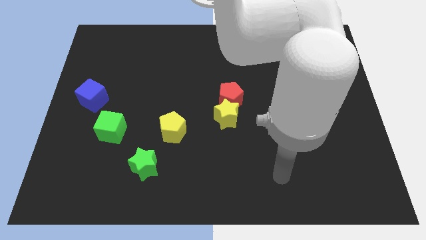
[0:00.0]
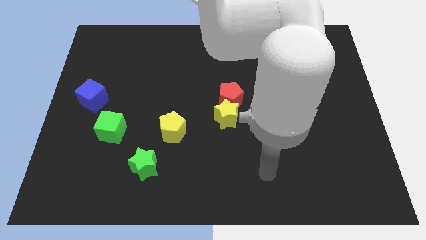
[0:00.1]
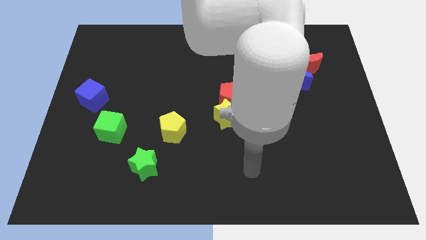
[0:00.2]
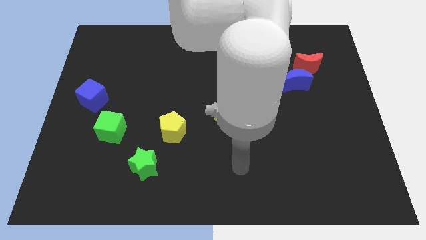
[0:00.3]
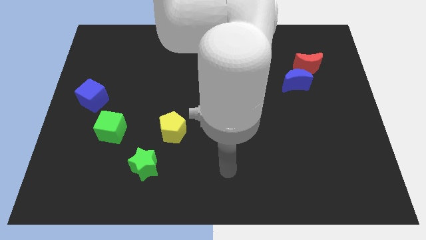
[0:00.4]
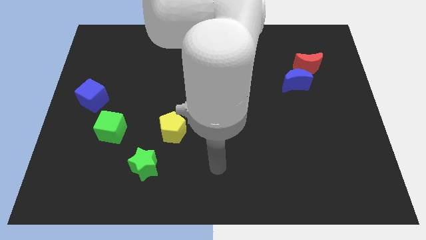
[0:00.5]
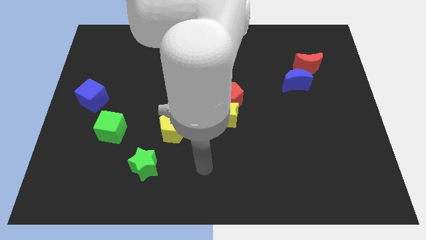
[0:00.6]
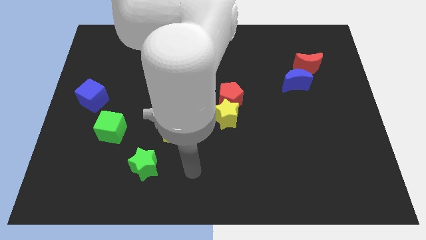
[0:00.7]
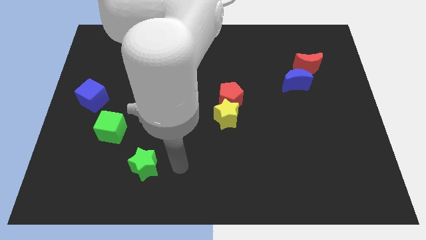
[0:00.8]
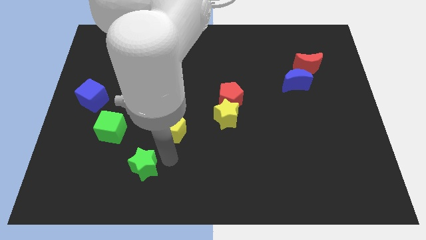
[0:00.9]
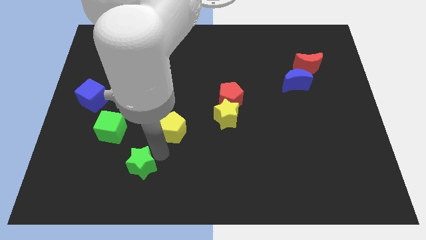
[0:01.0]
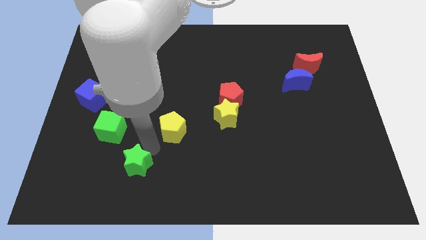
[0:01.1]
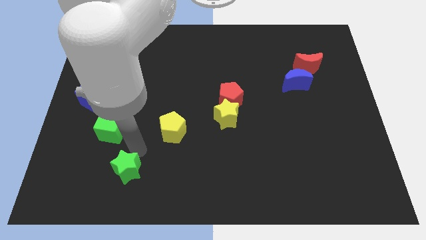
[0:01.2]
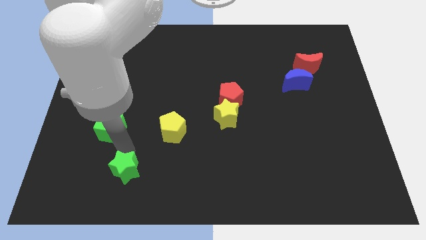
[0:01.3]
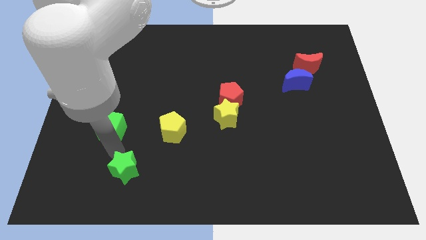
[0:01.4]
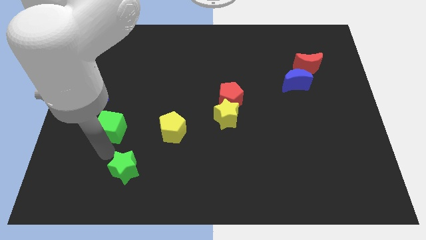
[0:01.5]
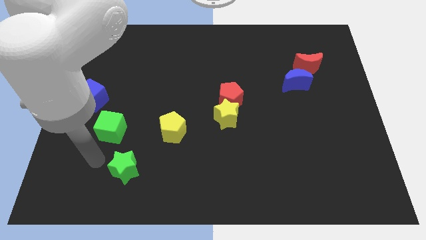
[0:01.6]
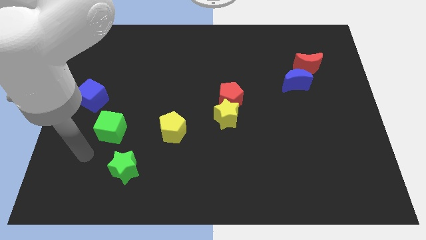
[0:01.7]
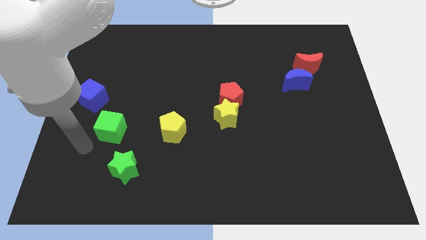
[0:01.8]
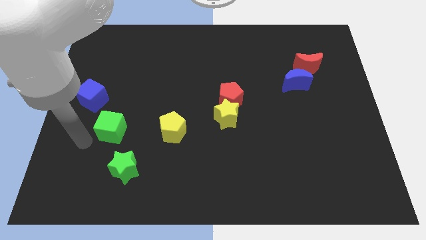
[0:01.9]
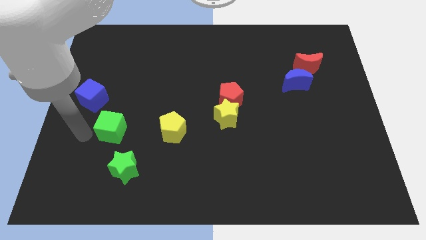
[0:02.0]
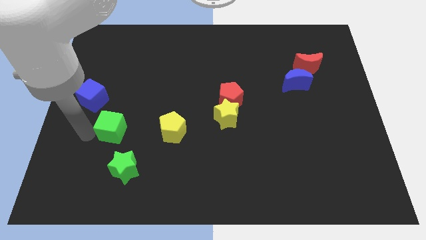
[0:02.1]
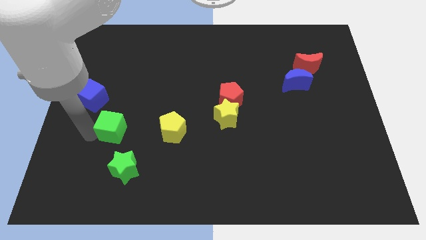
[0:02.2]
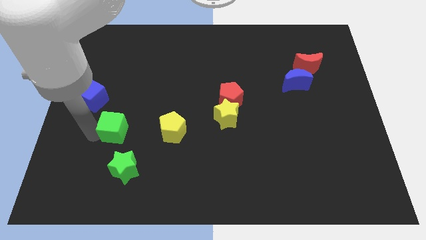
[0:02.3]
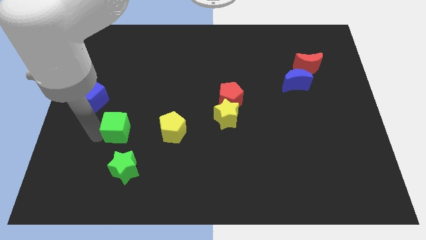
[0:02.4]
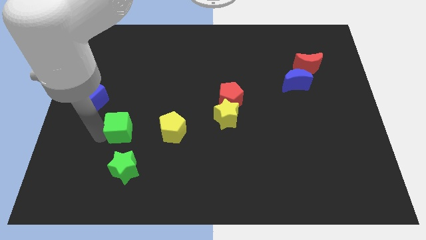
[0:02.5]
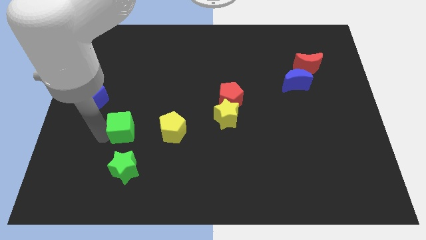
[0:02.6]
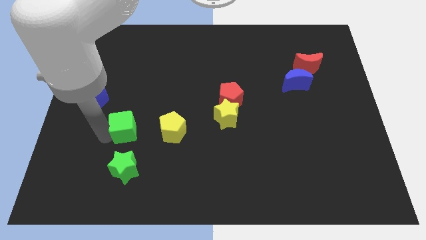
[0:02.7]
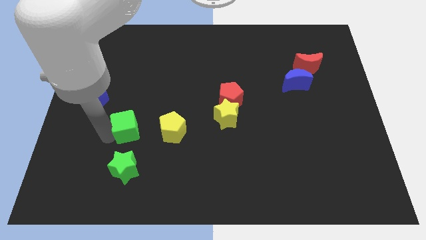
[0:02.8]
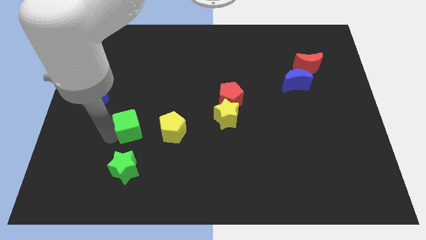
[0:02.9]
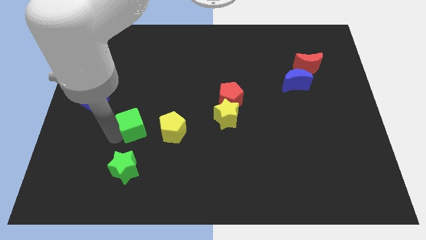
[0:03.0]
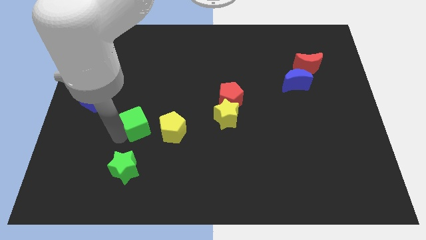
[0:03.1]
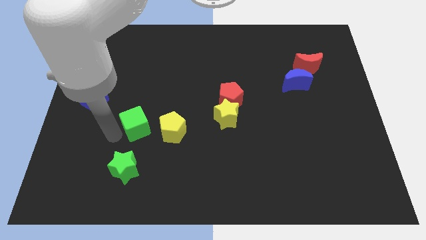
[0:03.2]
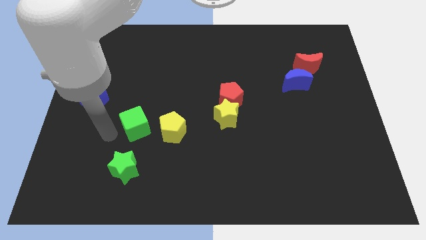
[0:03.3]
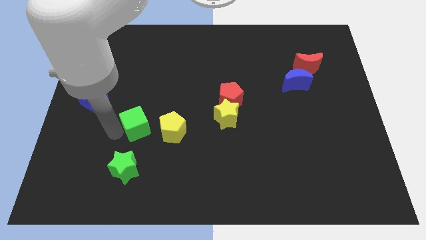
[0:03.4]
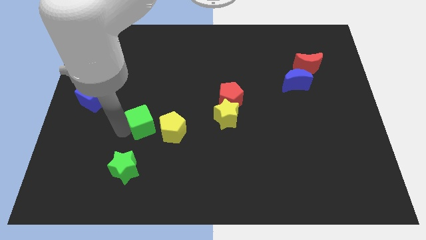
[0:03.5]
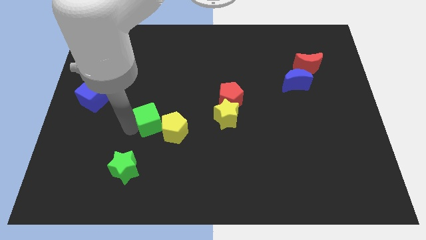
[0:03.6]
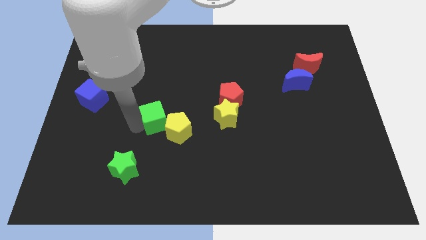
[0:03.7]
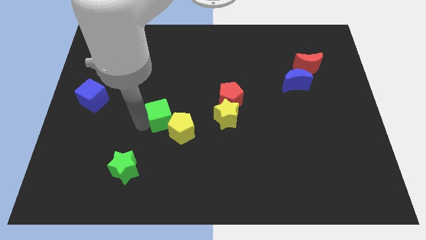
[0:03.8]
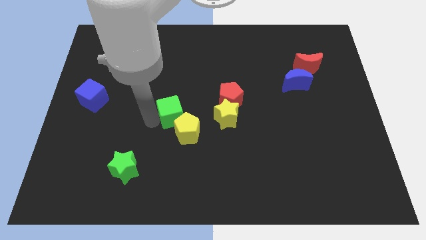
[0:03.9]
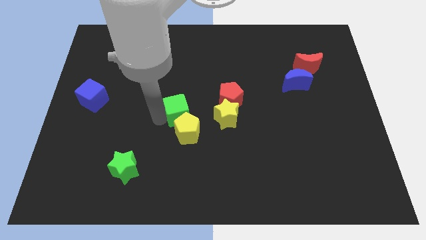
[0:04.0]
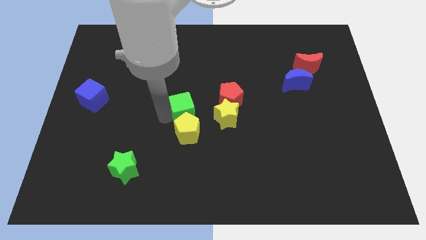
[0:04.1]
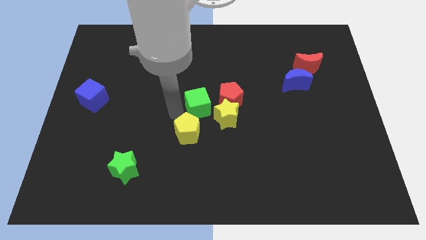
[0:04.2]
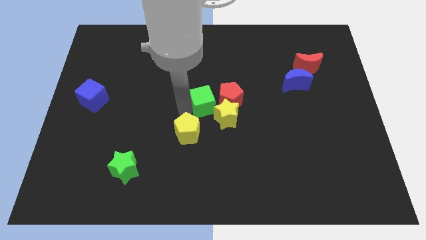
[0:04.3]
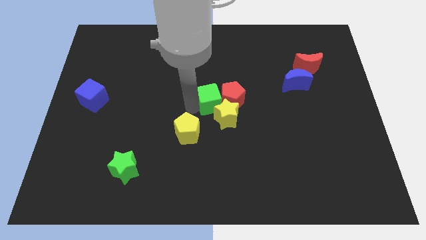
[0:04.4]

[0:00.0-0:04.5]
move the green cube towards the red pentagon

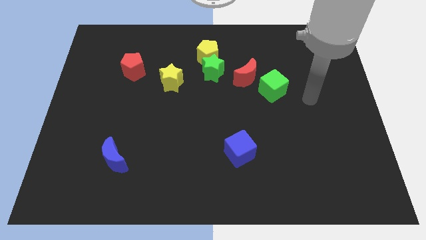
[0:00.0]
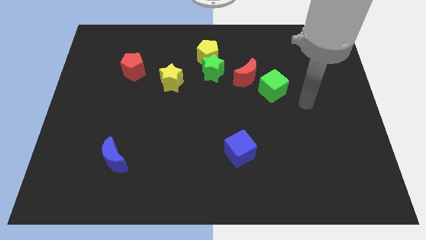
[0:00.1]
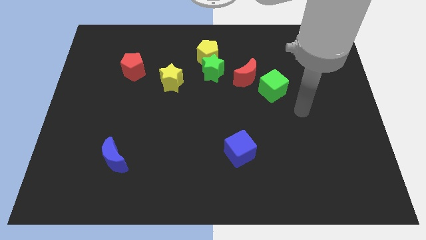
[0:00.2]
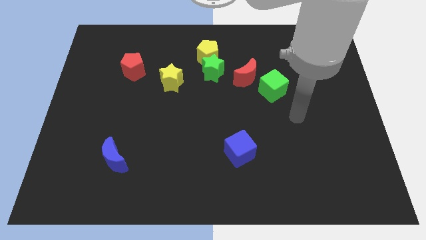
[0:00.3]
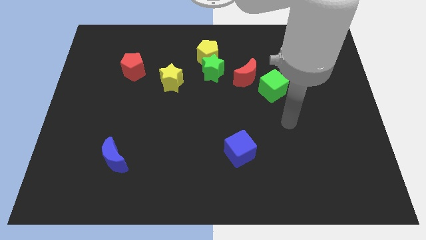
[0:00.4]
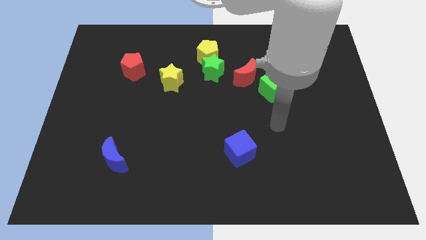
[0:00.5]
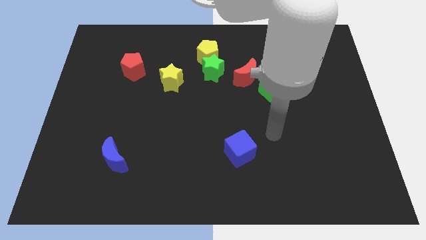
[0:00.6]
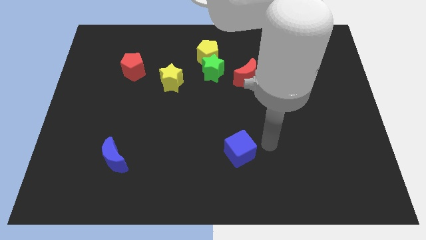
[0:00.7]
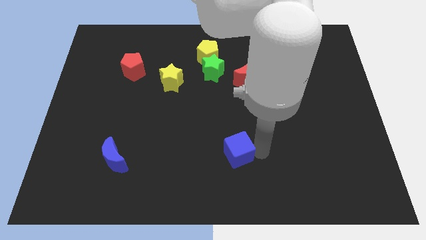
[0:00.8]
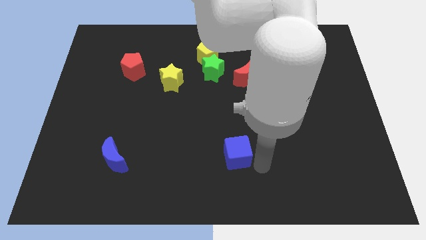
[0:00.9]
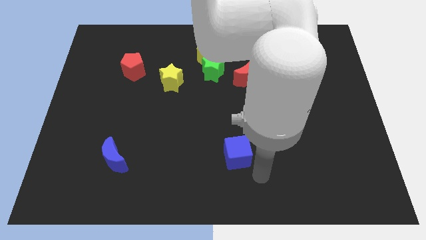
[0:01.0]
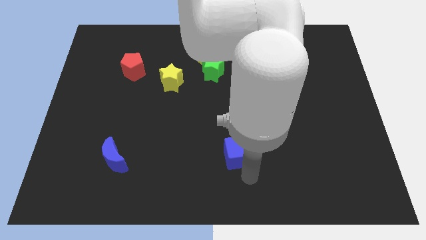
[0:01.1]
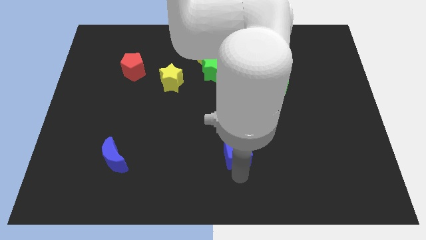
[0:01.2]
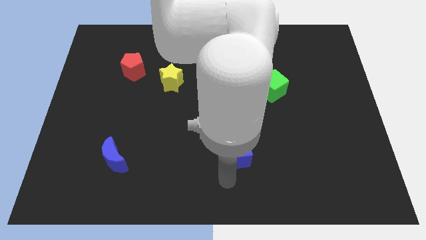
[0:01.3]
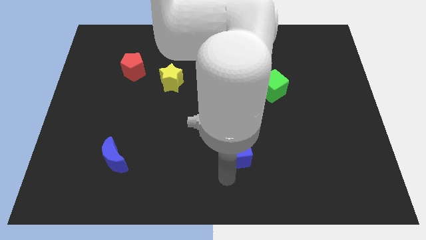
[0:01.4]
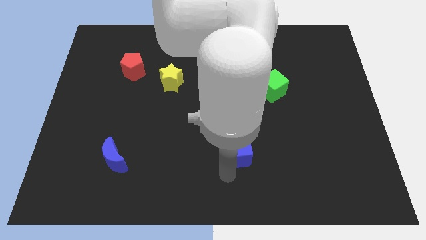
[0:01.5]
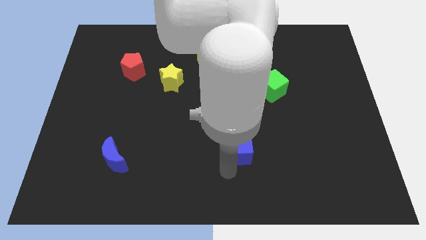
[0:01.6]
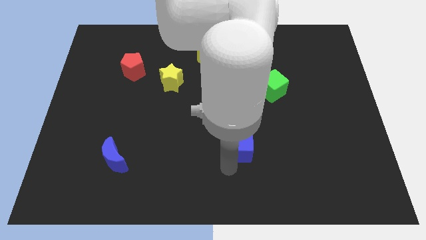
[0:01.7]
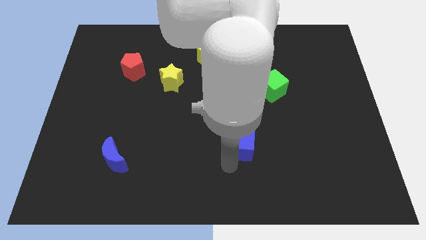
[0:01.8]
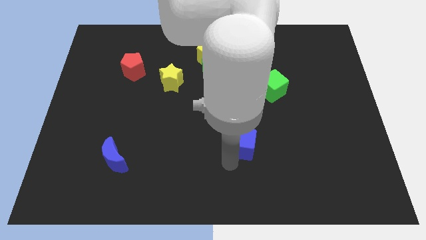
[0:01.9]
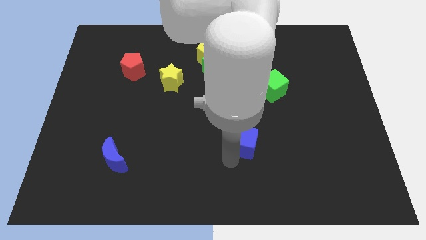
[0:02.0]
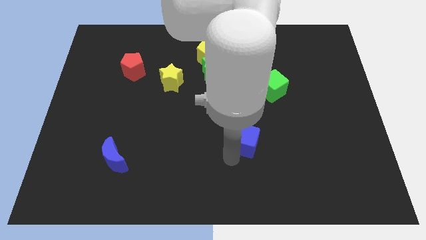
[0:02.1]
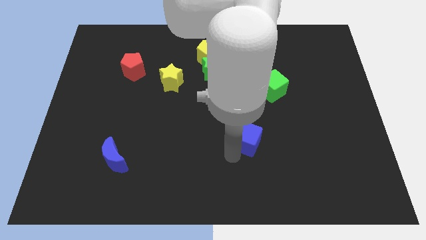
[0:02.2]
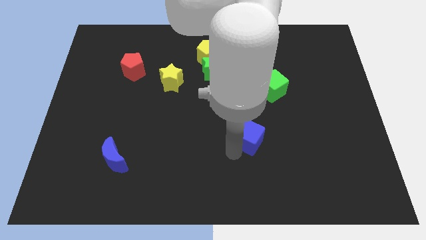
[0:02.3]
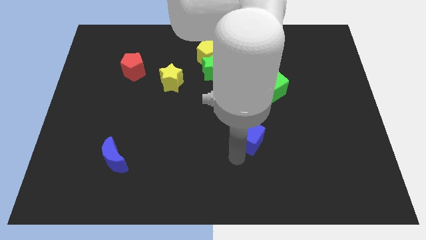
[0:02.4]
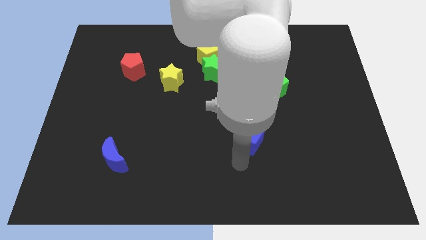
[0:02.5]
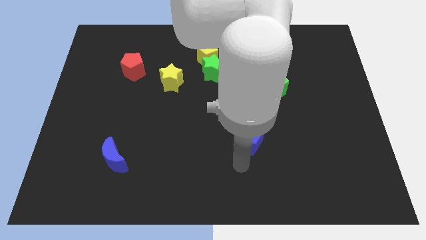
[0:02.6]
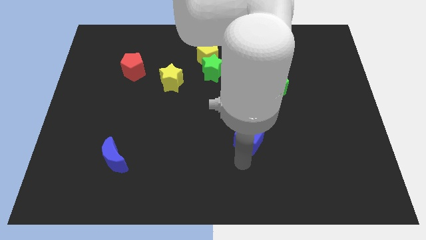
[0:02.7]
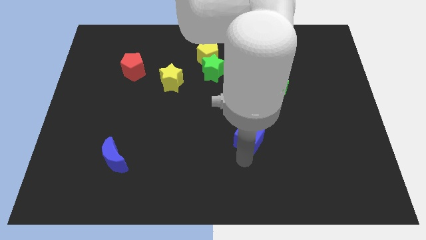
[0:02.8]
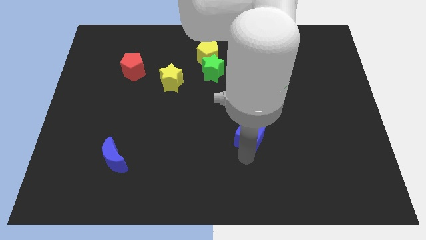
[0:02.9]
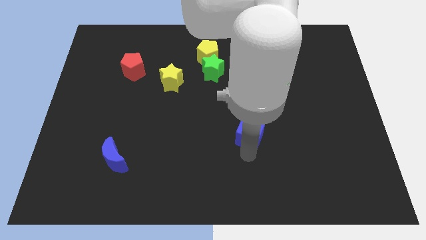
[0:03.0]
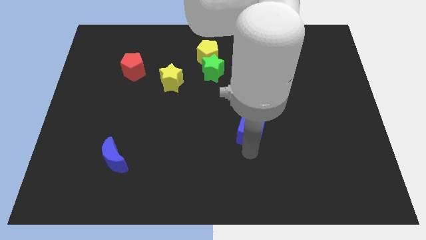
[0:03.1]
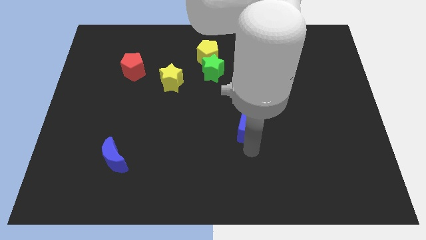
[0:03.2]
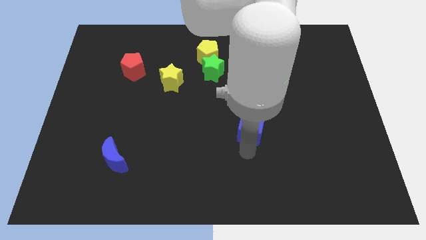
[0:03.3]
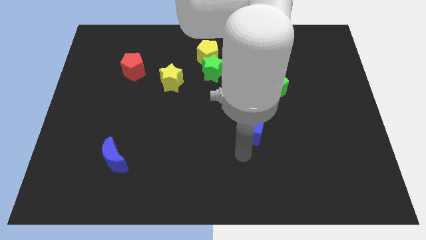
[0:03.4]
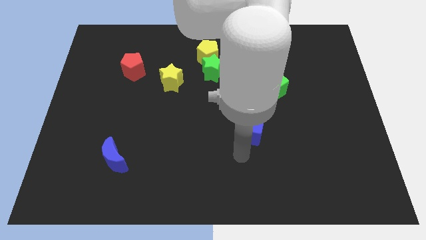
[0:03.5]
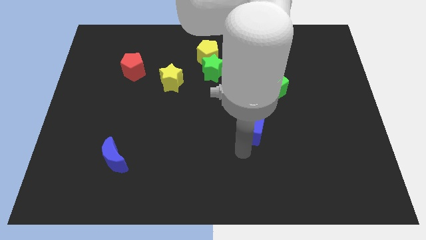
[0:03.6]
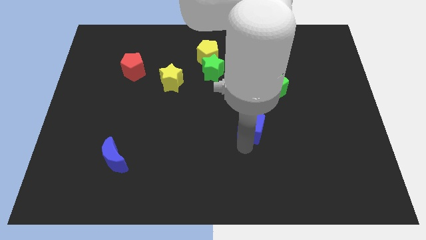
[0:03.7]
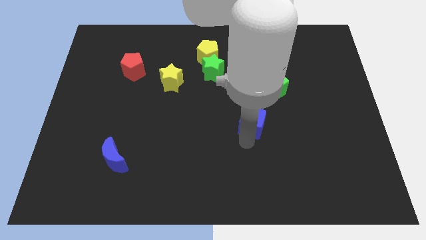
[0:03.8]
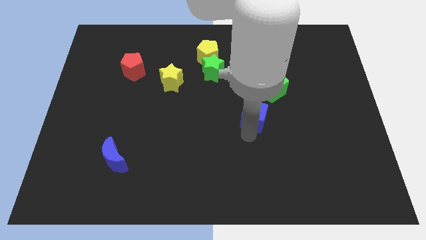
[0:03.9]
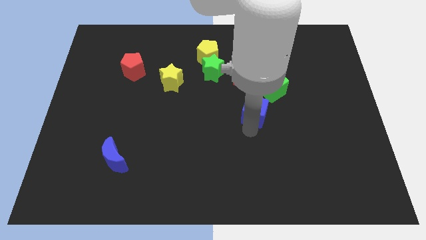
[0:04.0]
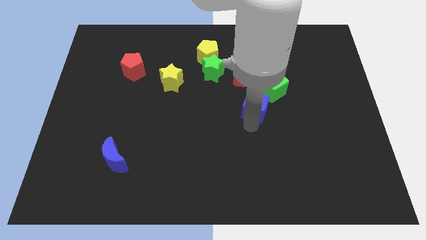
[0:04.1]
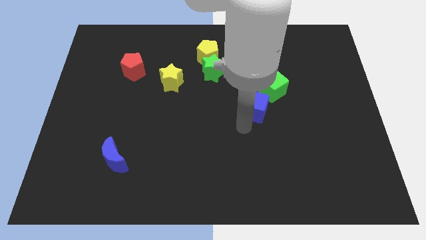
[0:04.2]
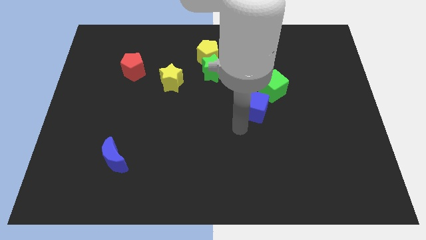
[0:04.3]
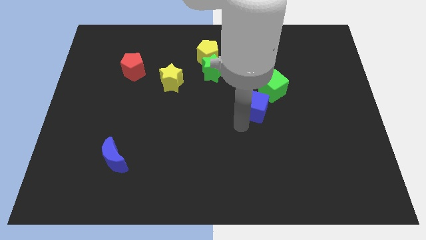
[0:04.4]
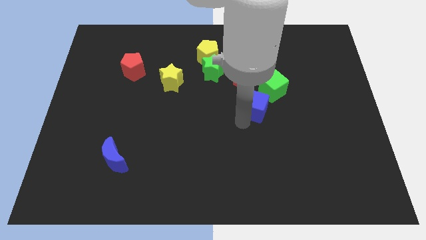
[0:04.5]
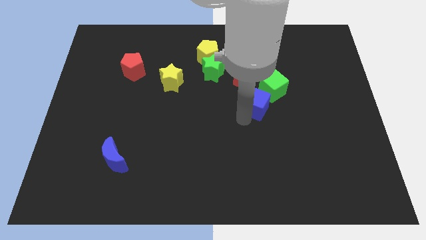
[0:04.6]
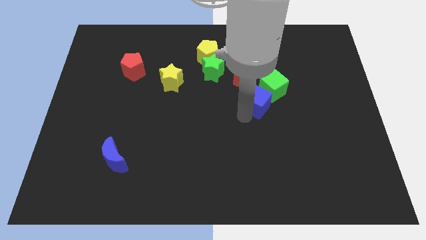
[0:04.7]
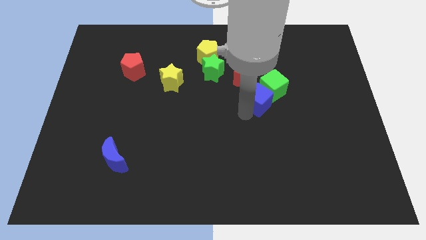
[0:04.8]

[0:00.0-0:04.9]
put the blue cube next to the green cube
